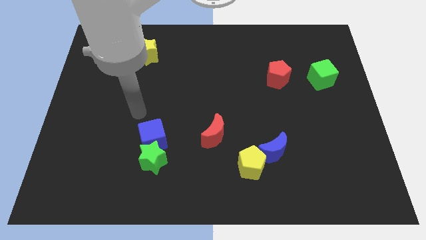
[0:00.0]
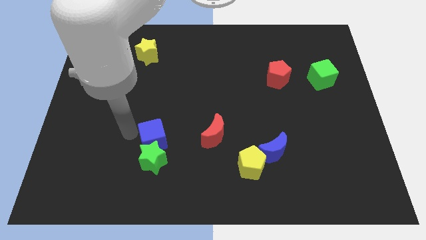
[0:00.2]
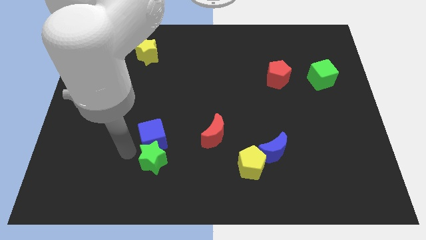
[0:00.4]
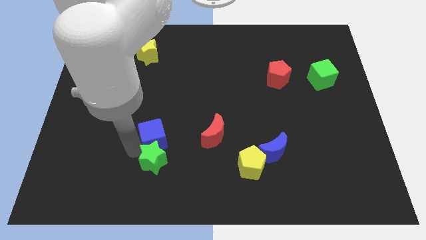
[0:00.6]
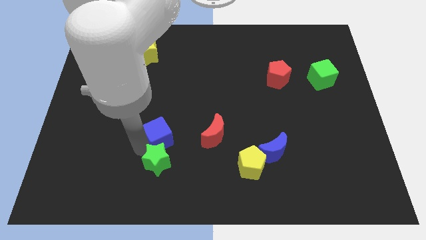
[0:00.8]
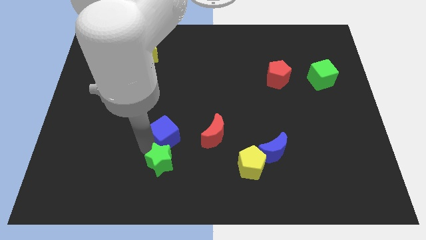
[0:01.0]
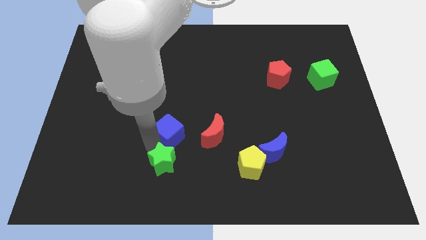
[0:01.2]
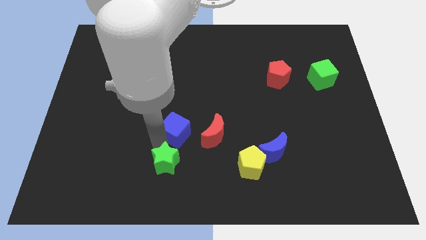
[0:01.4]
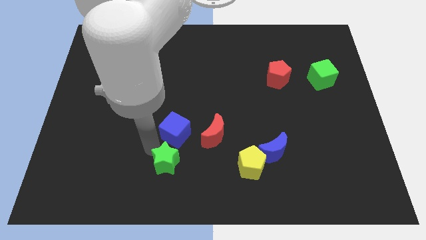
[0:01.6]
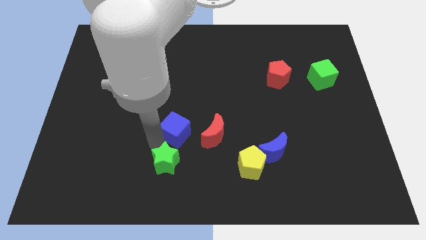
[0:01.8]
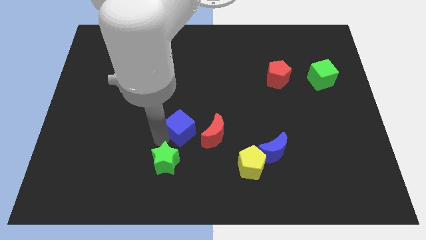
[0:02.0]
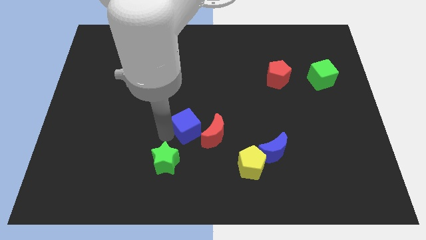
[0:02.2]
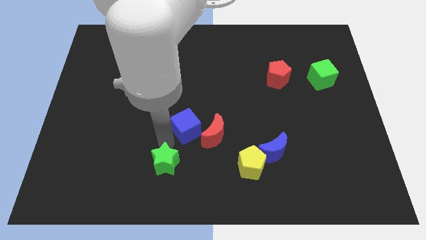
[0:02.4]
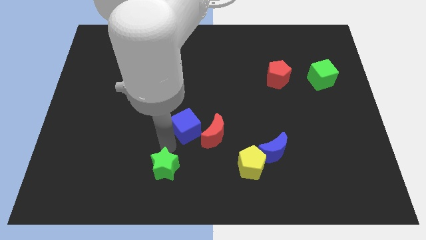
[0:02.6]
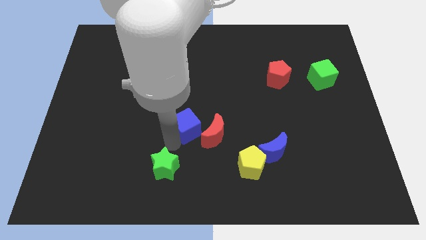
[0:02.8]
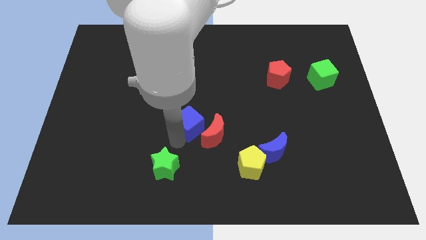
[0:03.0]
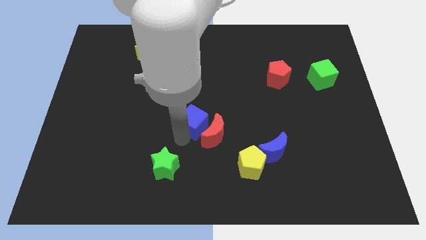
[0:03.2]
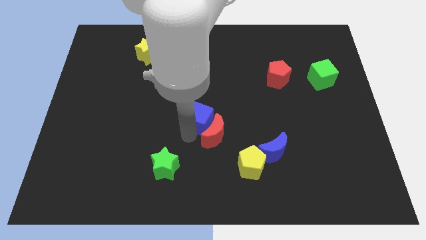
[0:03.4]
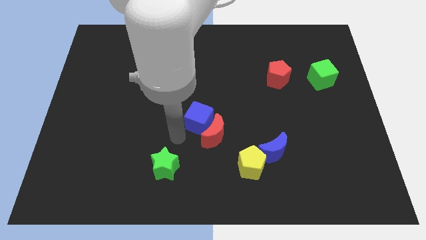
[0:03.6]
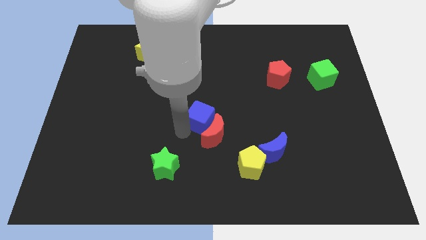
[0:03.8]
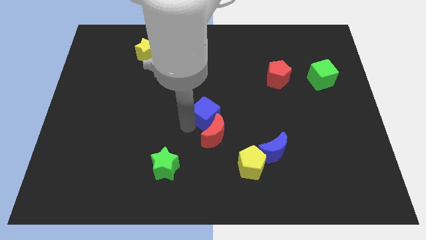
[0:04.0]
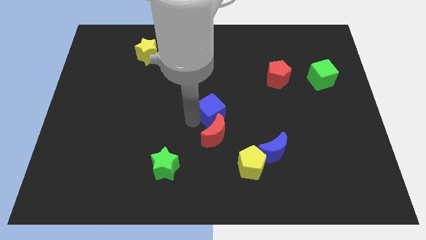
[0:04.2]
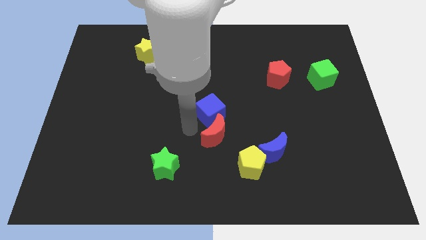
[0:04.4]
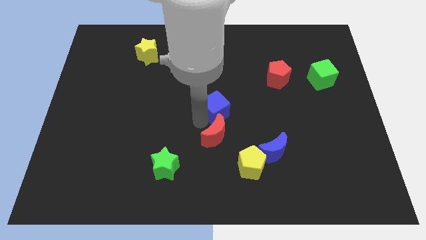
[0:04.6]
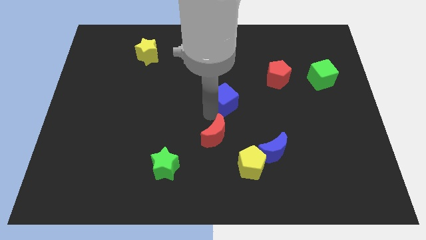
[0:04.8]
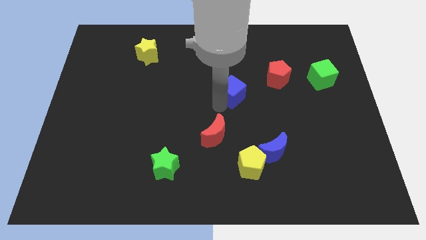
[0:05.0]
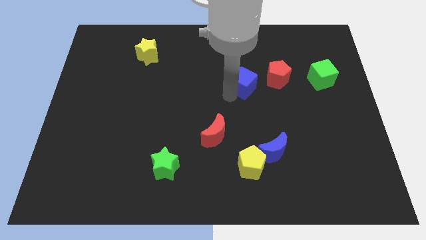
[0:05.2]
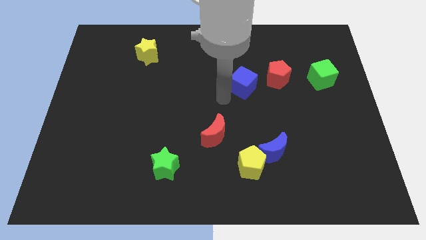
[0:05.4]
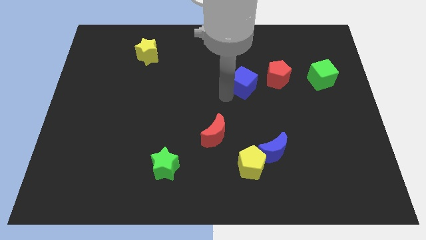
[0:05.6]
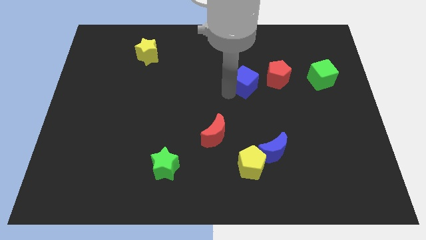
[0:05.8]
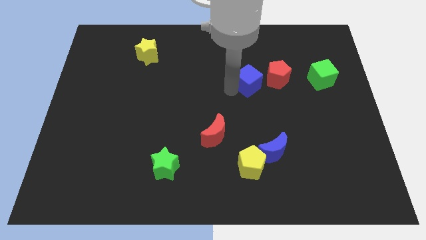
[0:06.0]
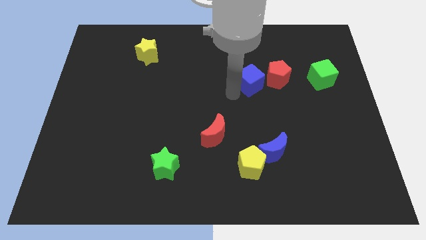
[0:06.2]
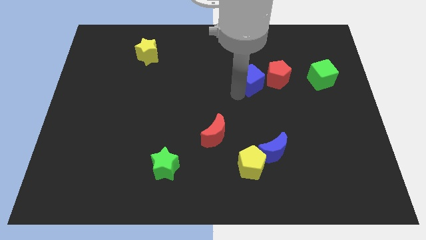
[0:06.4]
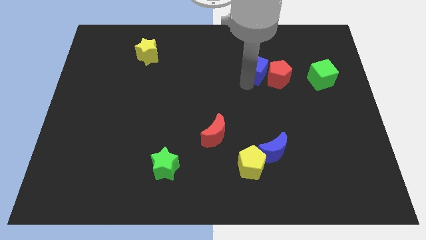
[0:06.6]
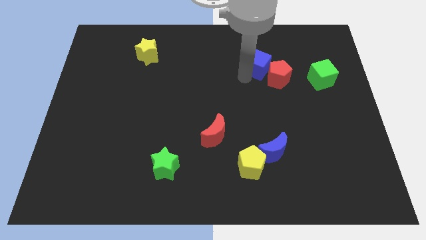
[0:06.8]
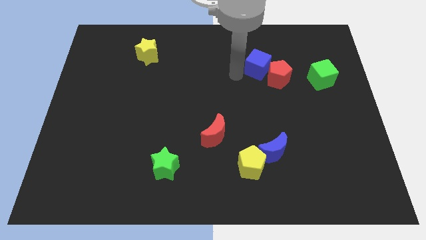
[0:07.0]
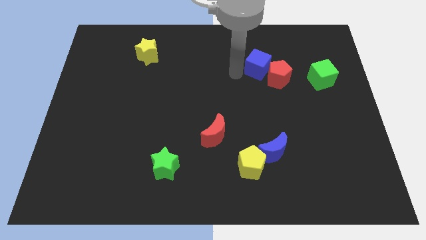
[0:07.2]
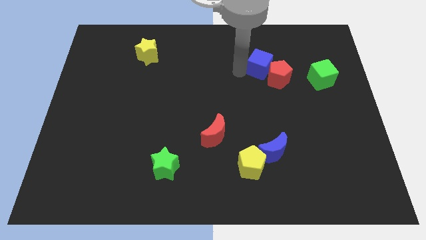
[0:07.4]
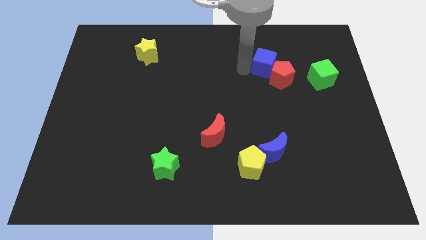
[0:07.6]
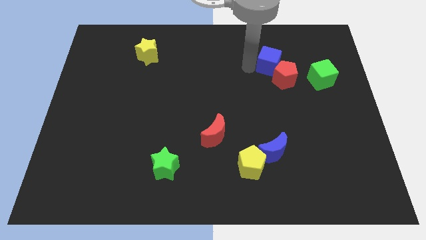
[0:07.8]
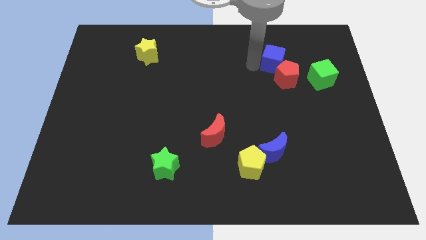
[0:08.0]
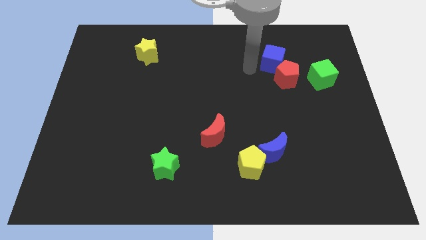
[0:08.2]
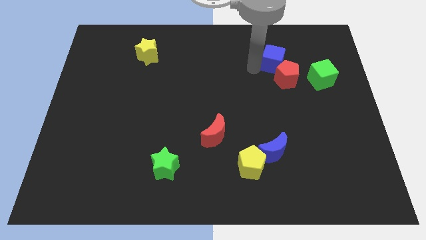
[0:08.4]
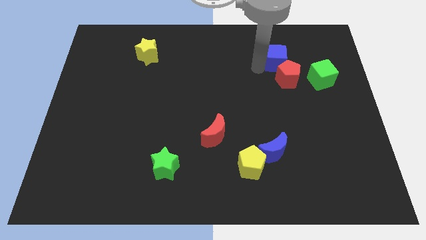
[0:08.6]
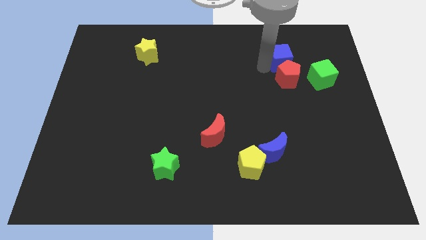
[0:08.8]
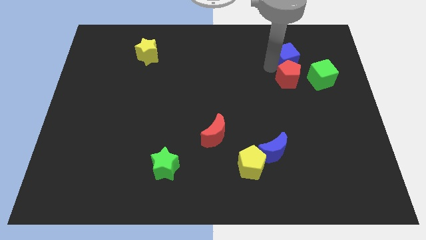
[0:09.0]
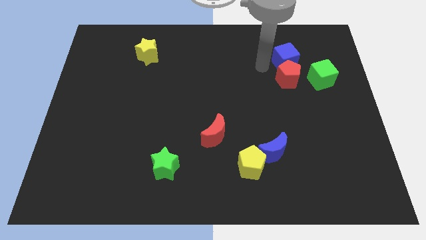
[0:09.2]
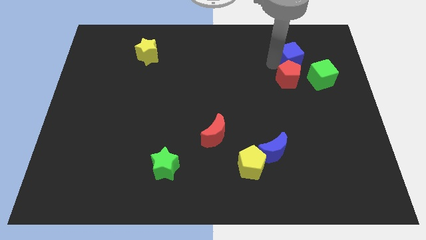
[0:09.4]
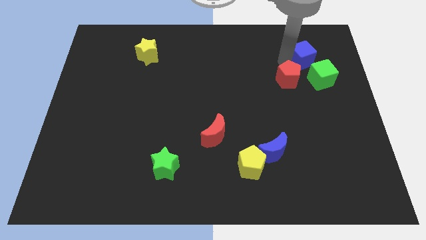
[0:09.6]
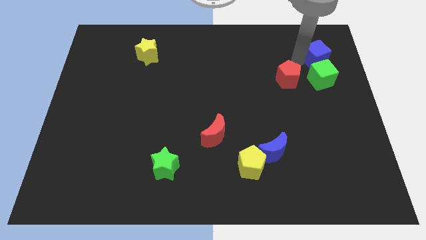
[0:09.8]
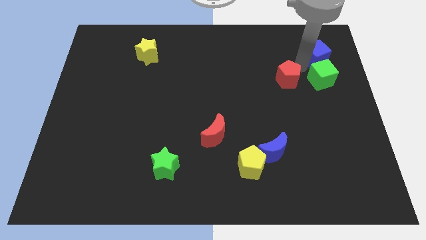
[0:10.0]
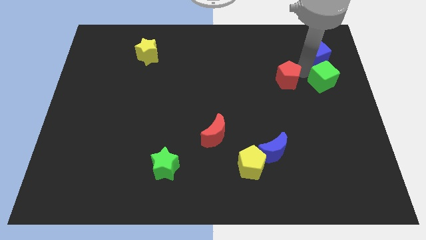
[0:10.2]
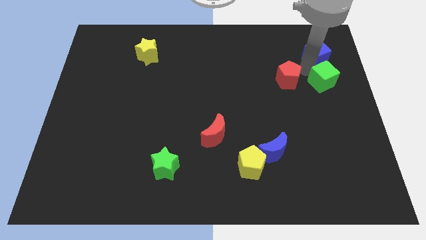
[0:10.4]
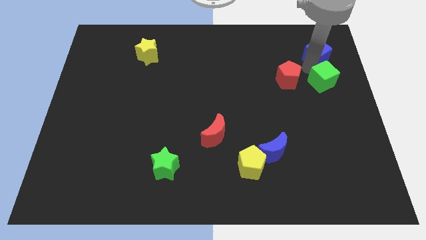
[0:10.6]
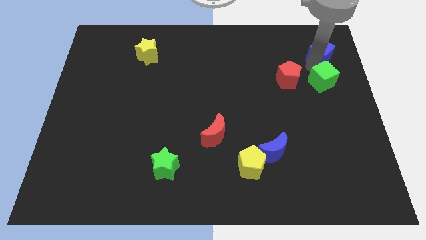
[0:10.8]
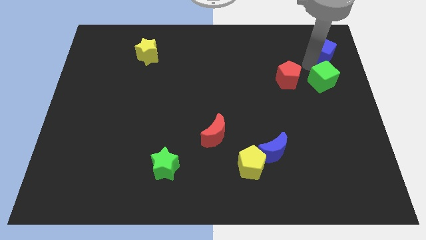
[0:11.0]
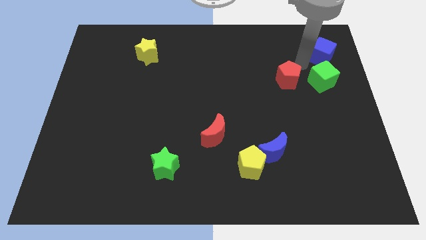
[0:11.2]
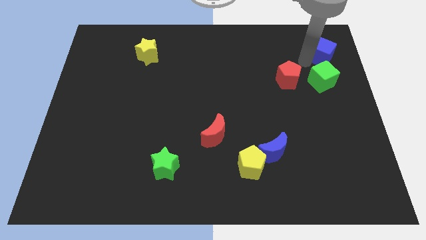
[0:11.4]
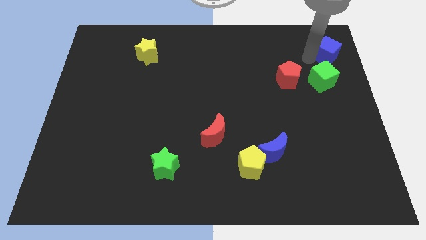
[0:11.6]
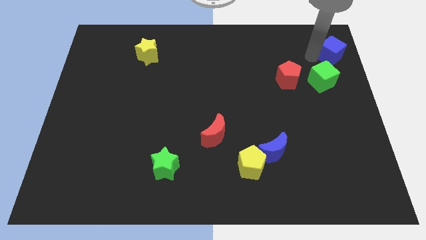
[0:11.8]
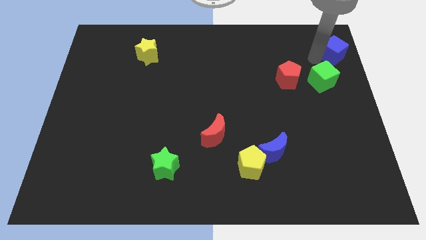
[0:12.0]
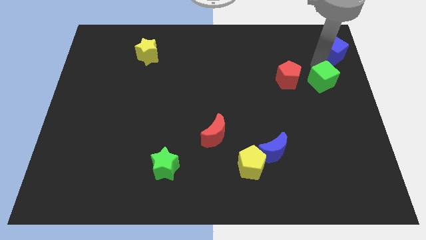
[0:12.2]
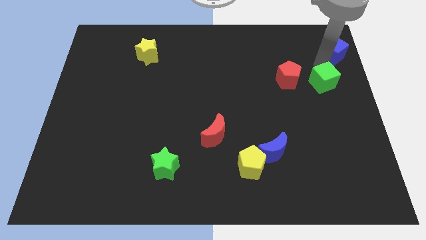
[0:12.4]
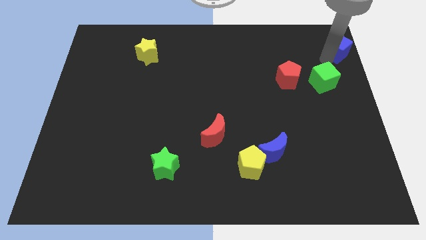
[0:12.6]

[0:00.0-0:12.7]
push the blue cube to the top right of the board

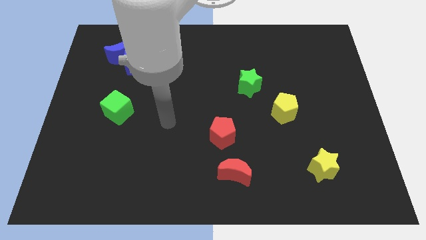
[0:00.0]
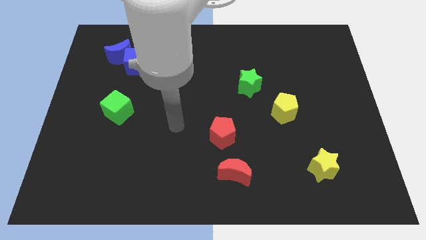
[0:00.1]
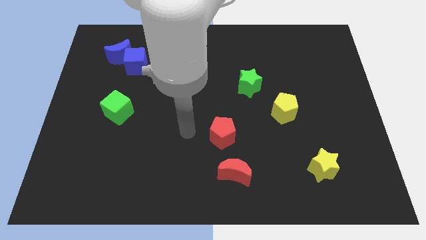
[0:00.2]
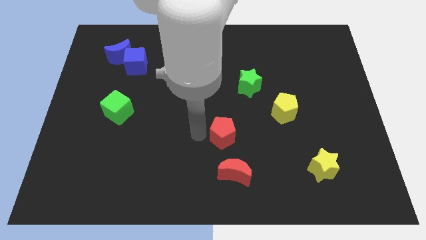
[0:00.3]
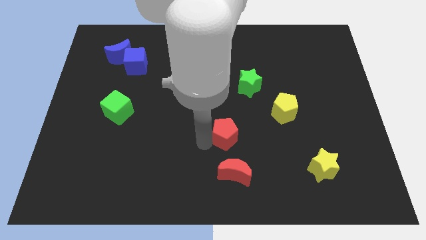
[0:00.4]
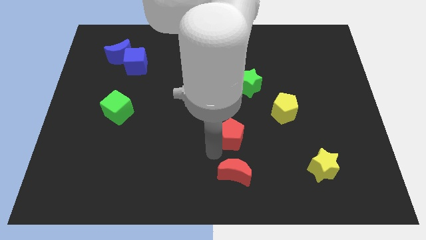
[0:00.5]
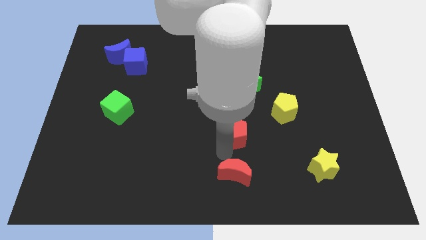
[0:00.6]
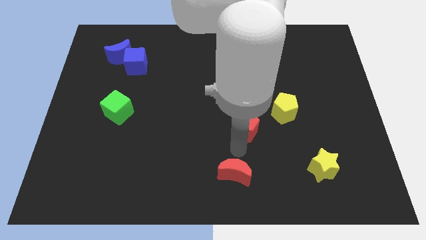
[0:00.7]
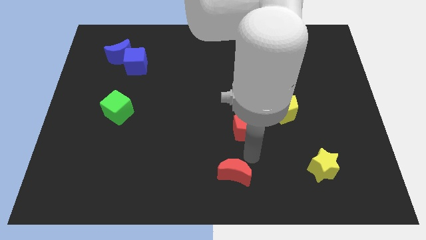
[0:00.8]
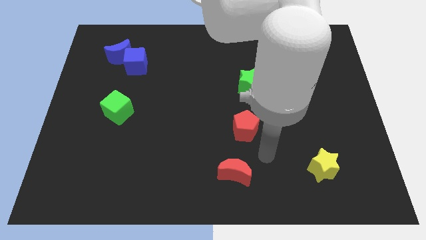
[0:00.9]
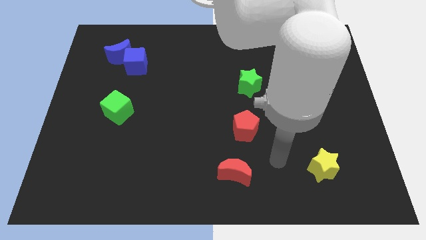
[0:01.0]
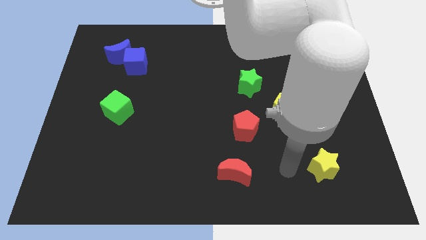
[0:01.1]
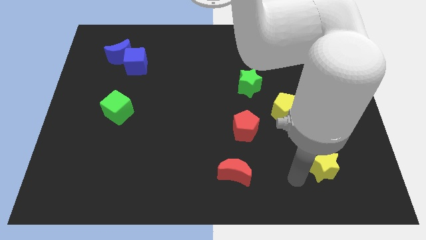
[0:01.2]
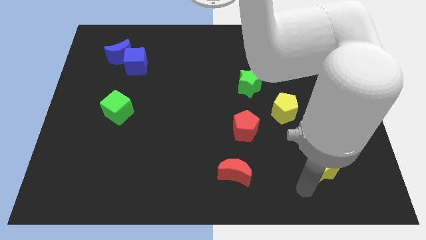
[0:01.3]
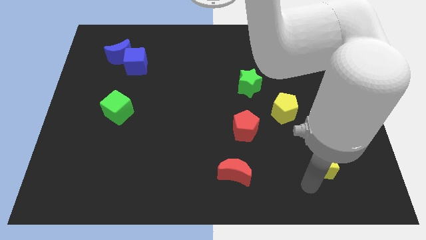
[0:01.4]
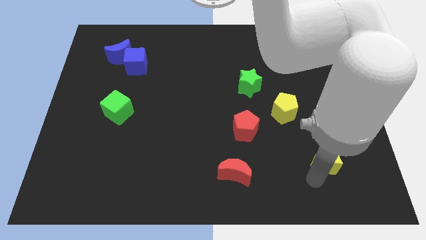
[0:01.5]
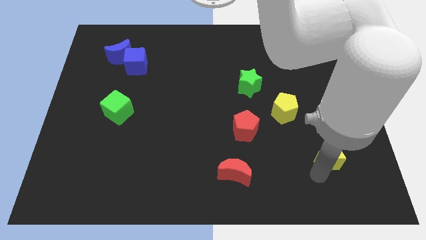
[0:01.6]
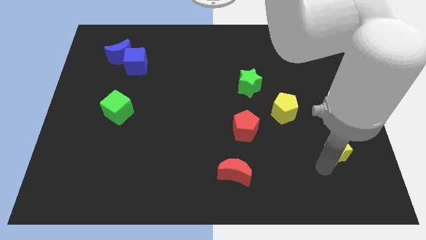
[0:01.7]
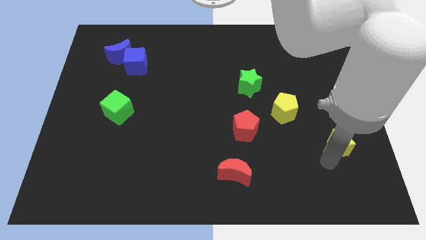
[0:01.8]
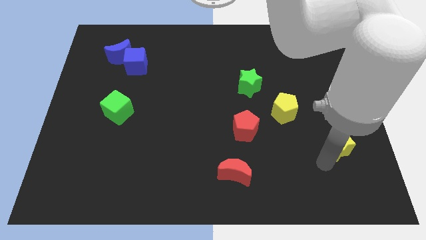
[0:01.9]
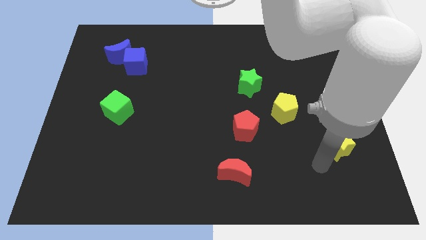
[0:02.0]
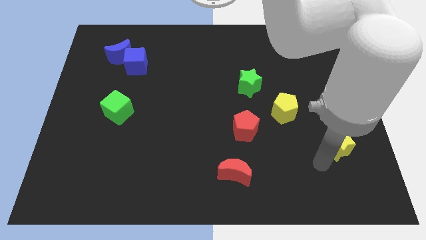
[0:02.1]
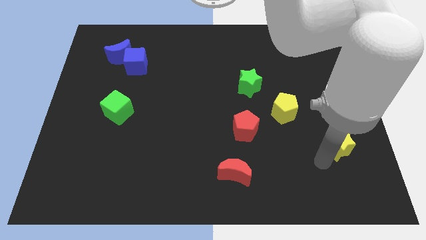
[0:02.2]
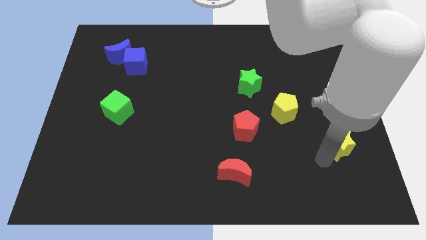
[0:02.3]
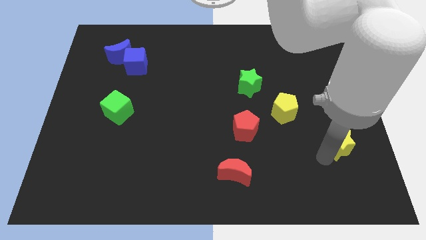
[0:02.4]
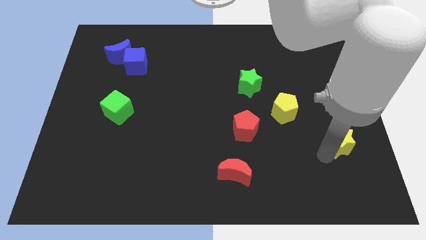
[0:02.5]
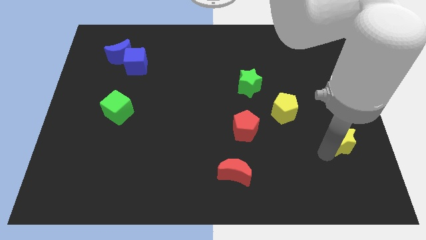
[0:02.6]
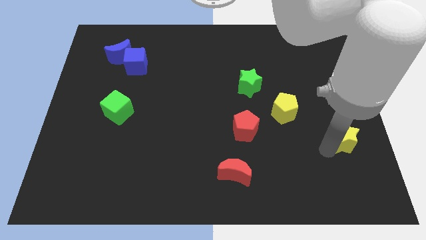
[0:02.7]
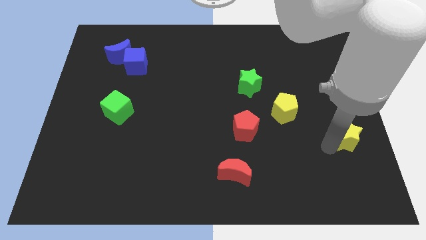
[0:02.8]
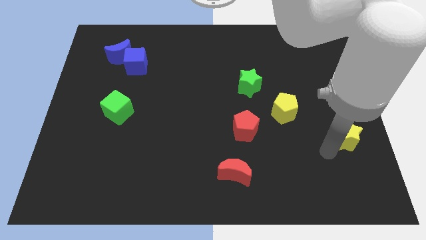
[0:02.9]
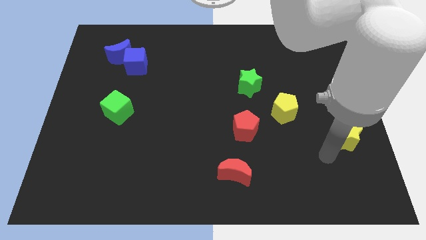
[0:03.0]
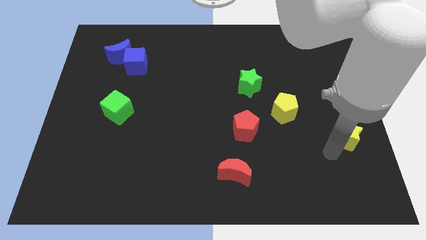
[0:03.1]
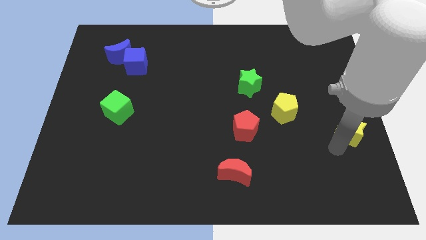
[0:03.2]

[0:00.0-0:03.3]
move the yellow star to the right side
